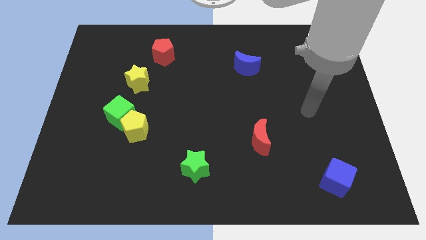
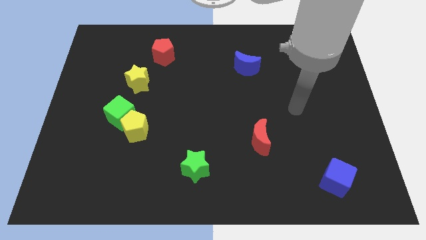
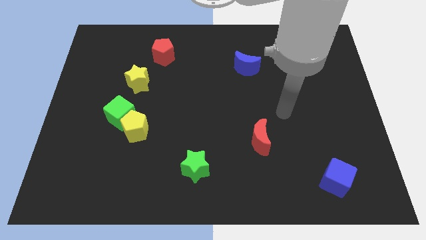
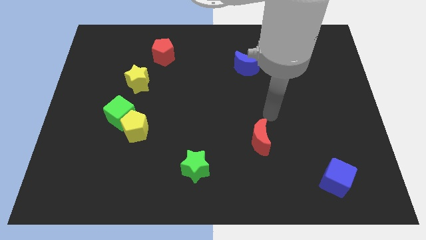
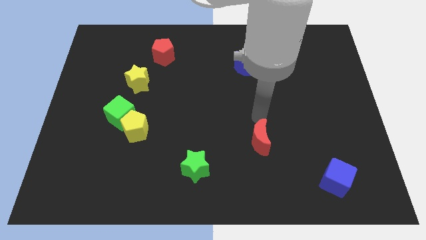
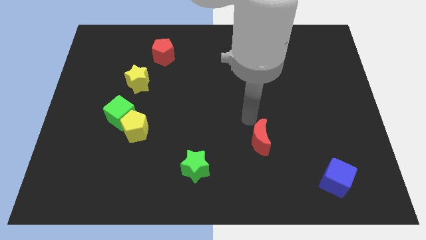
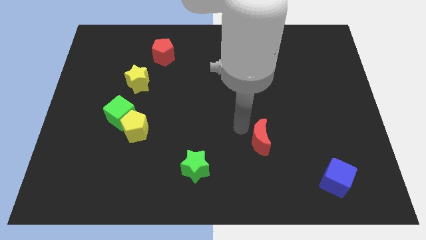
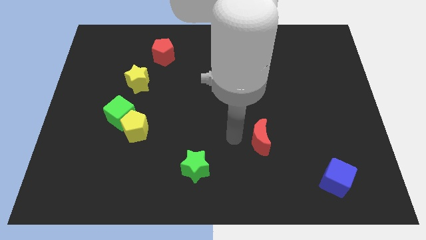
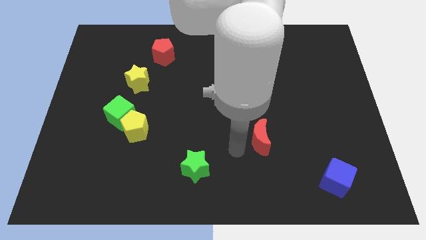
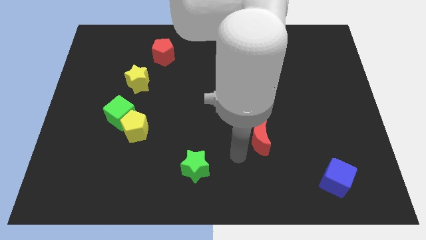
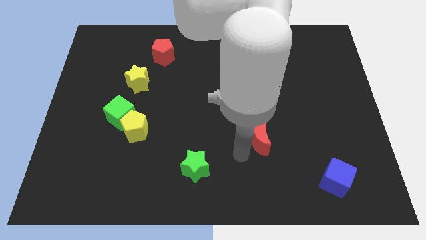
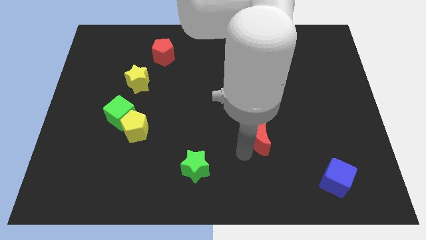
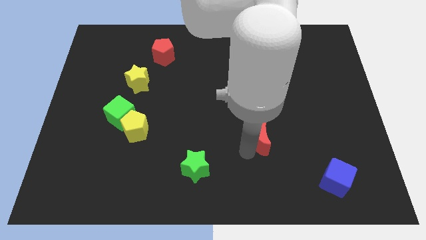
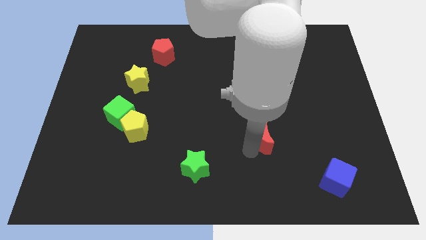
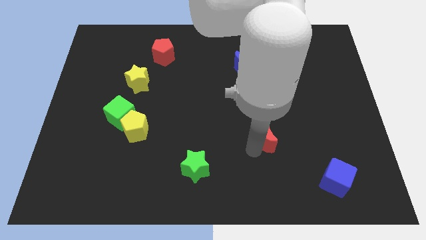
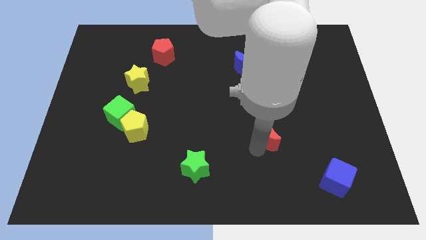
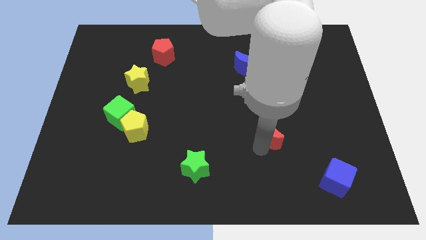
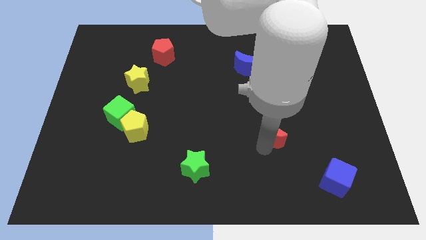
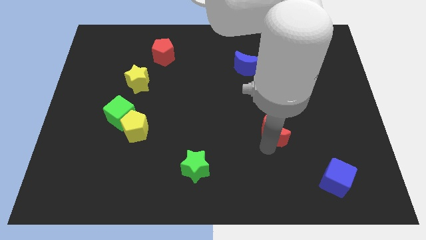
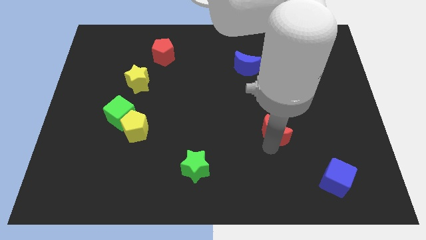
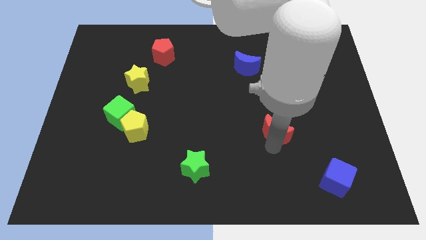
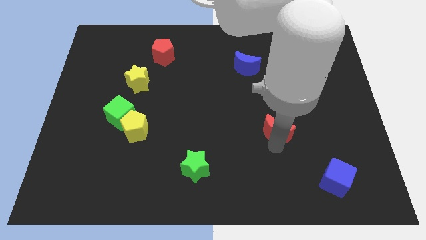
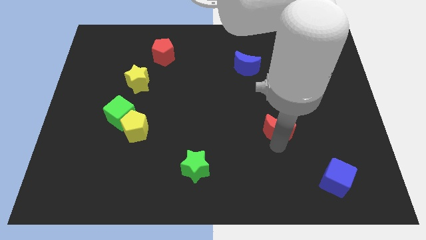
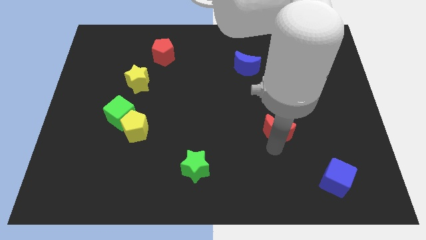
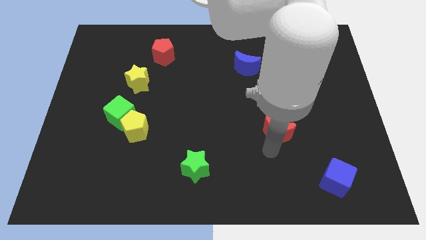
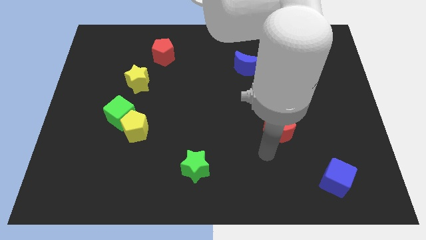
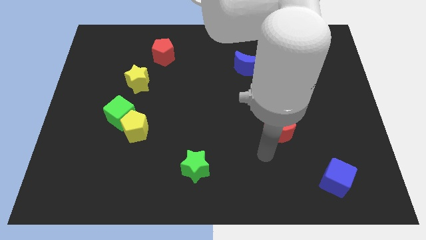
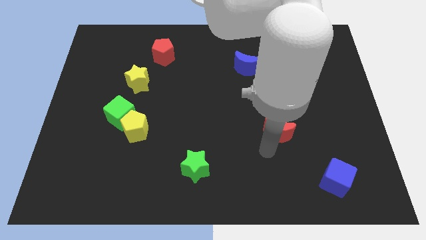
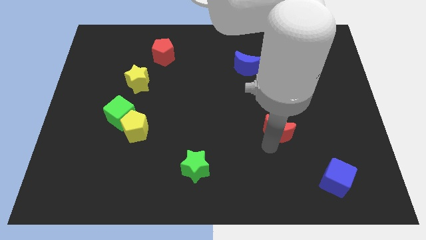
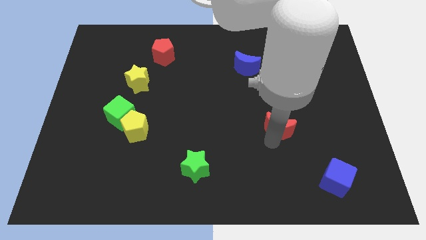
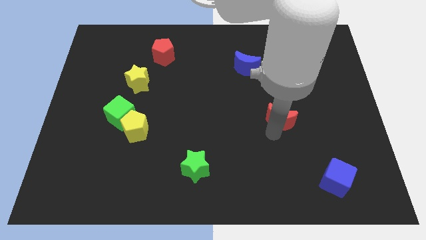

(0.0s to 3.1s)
slide the red moon up and then to the right slightly

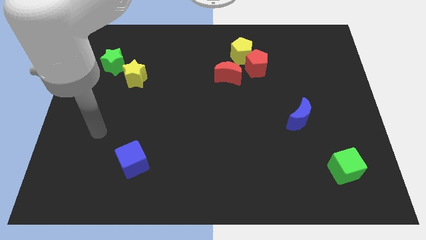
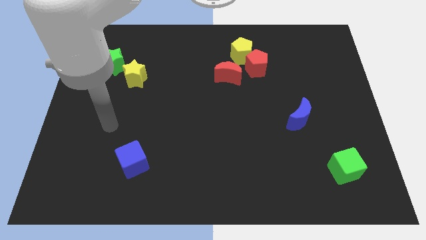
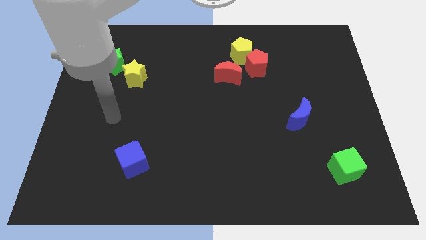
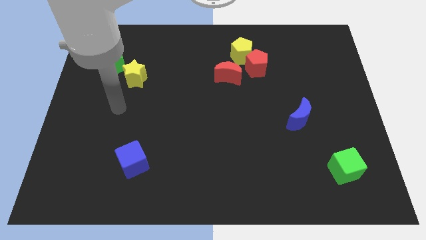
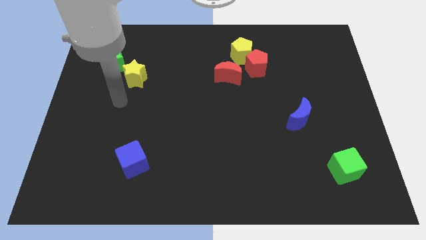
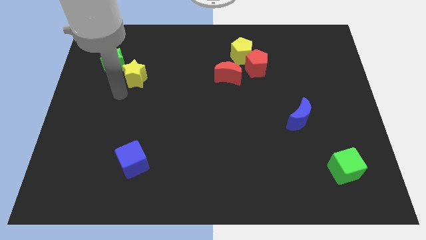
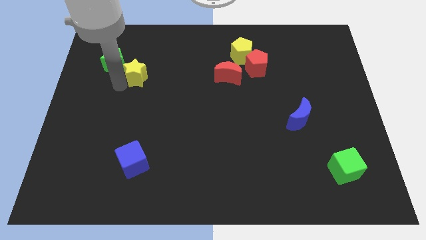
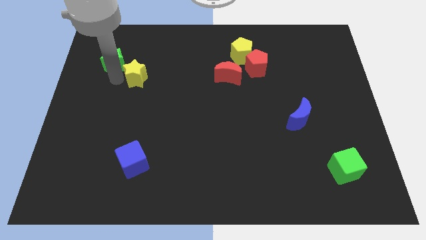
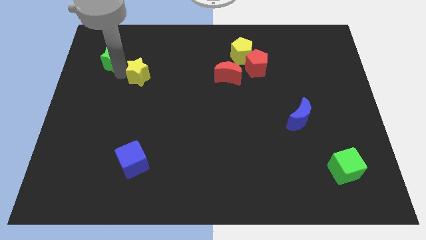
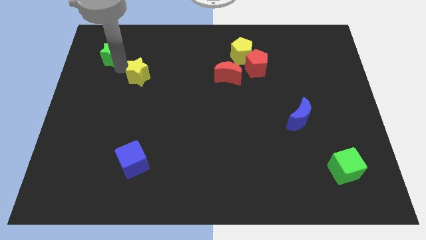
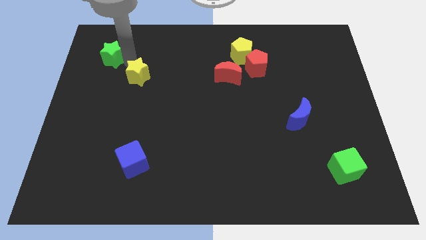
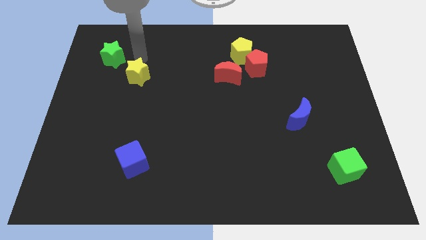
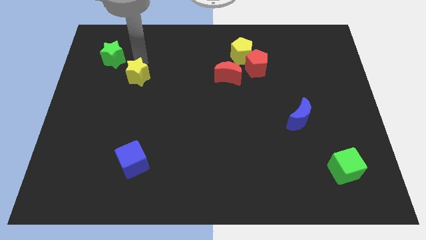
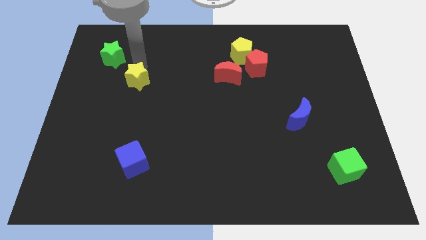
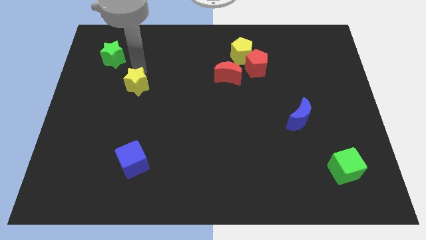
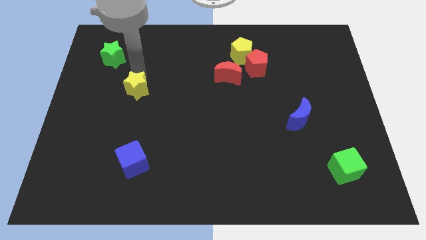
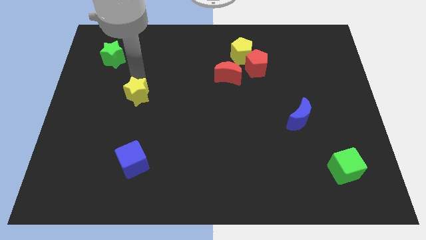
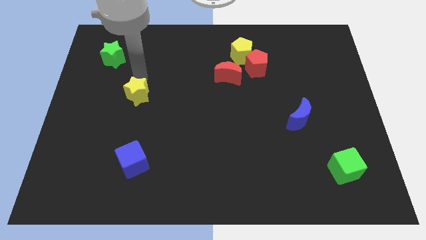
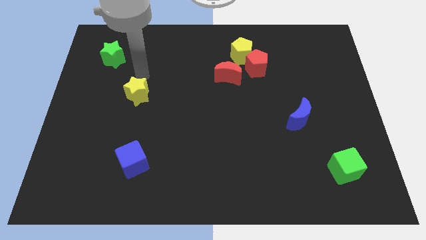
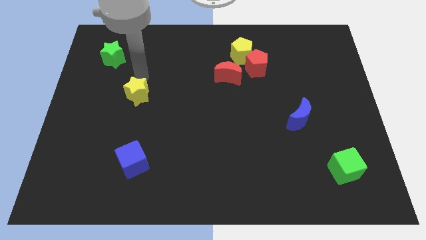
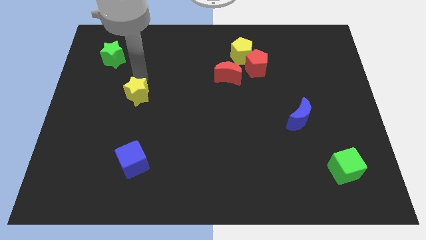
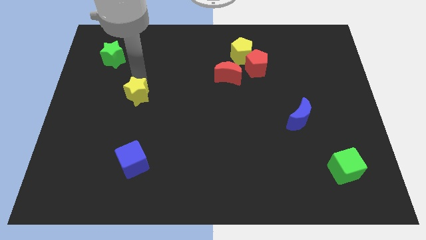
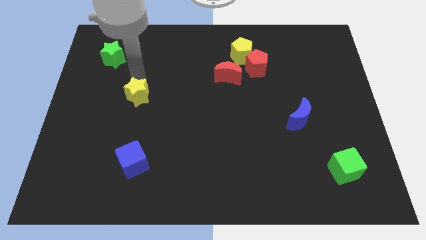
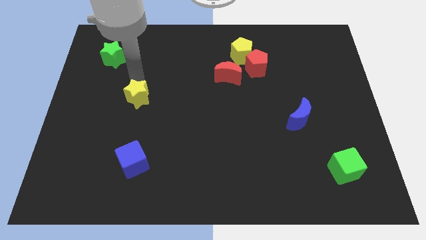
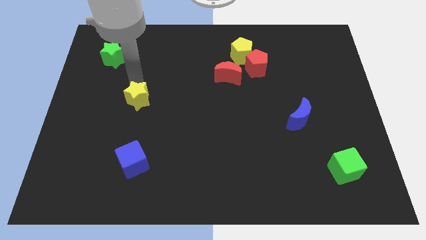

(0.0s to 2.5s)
move the yellow star somewhat down

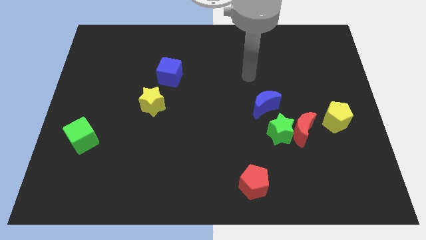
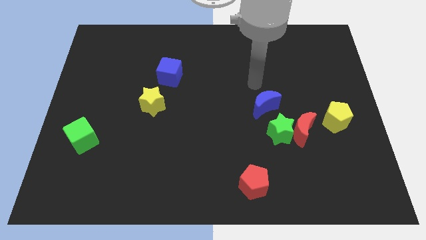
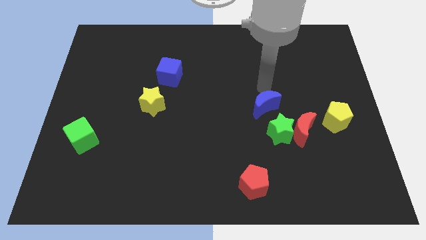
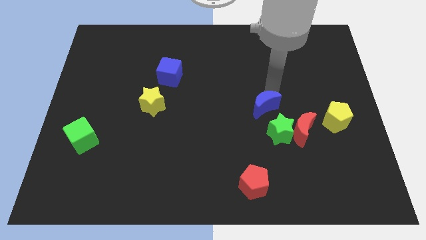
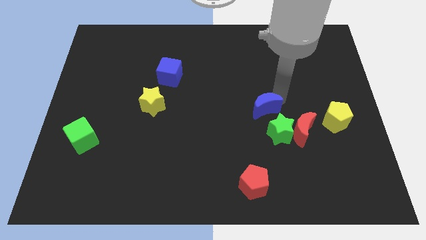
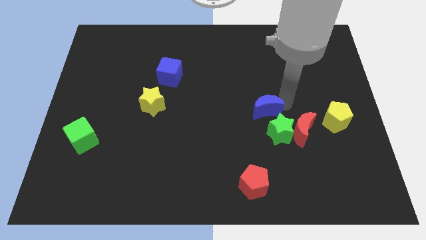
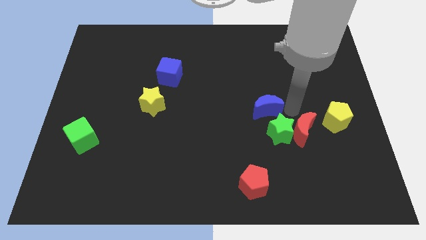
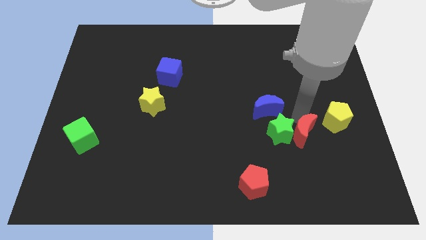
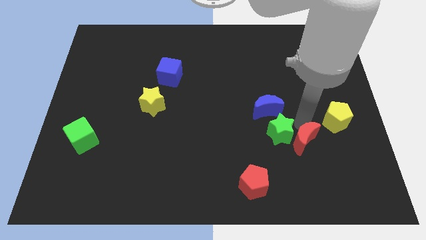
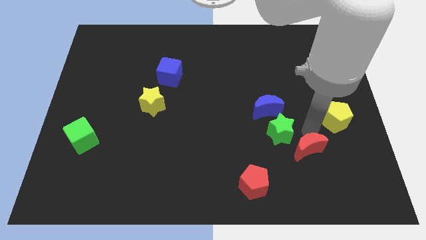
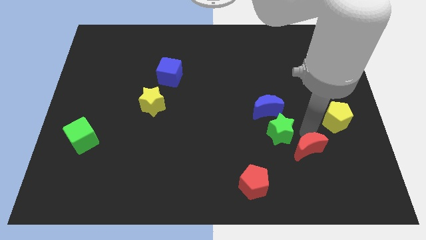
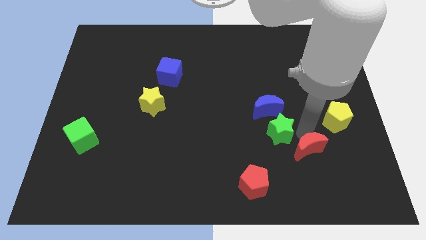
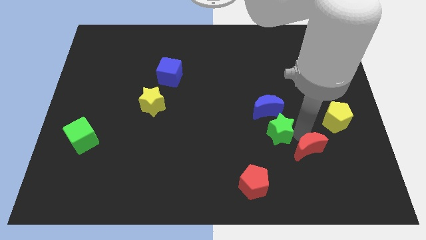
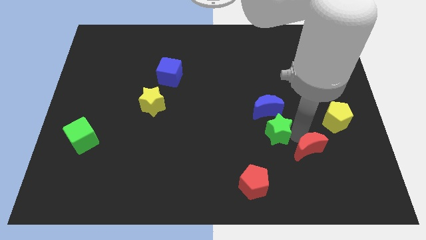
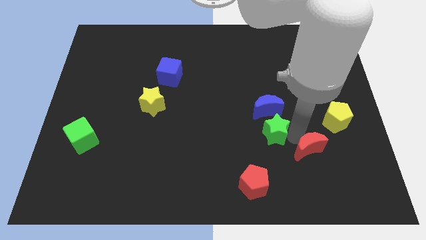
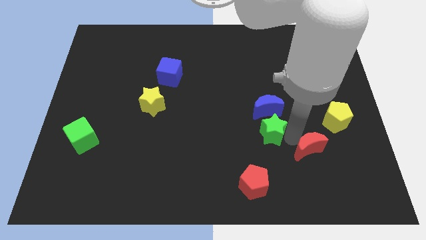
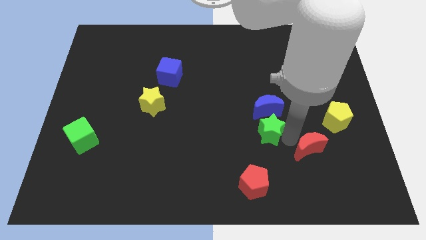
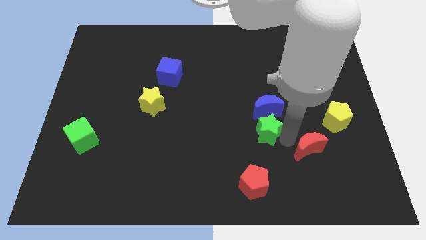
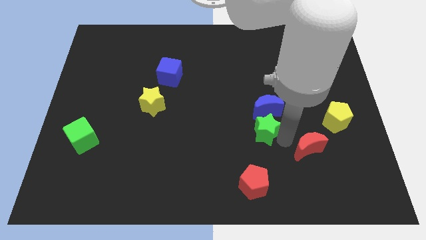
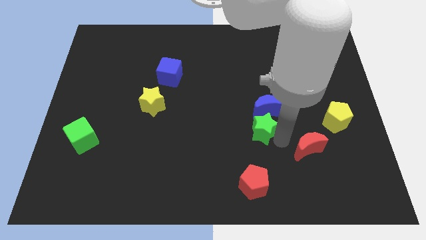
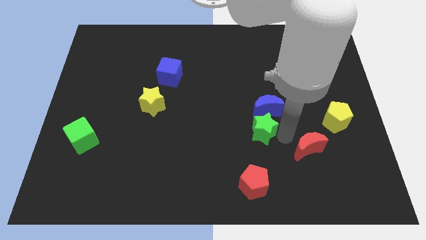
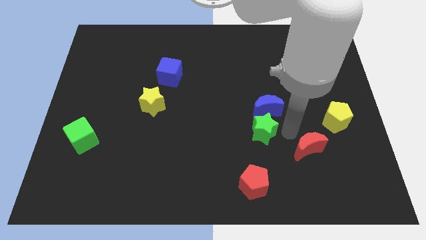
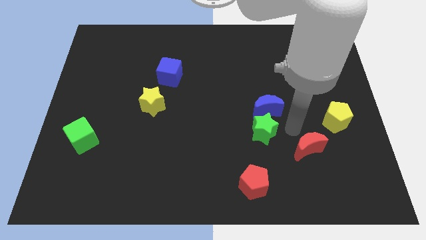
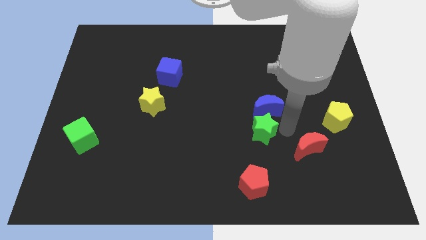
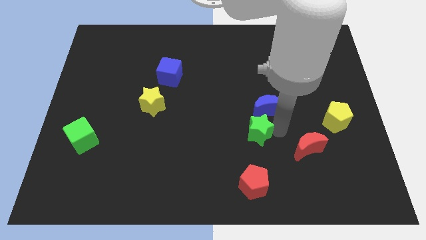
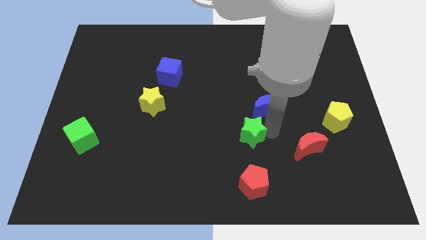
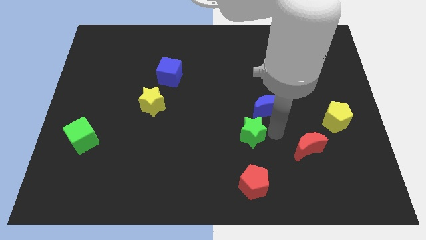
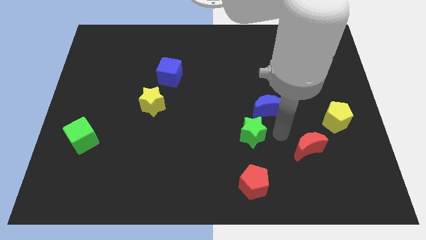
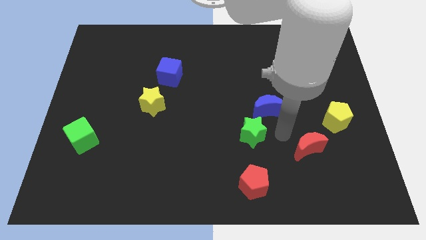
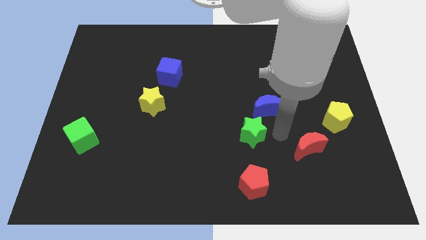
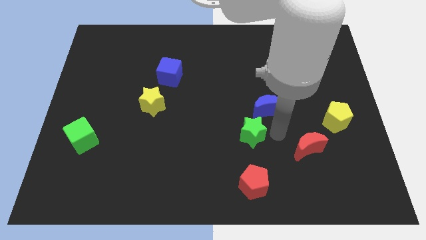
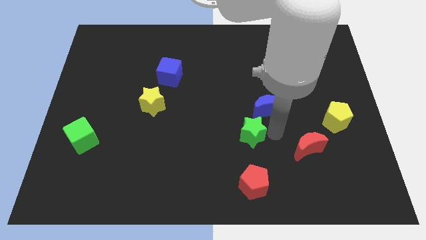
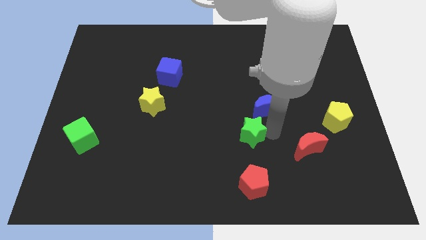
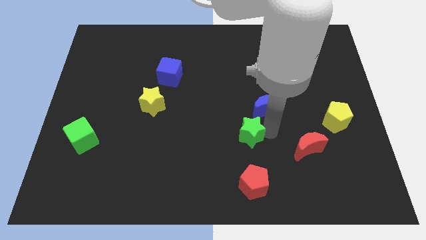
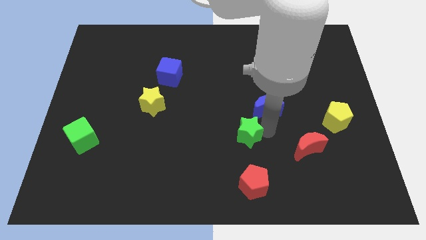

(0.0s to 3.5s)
slide the green star slightly to the left
